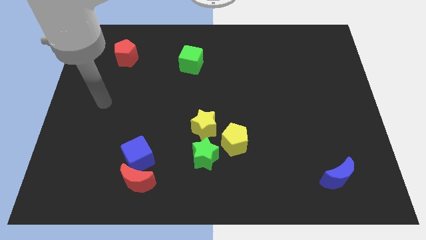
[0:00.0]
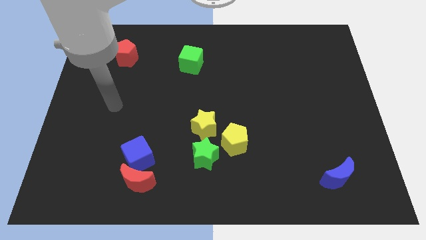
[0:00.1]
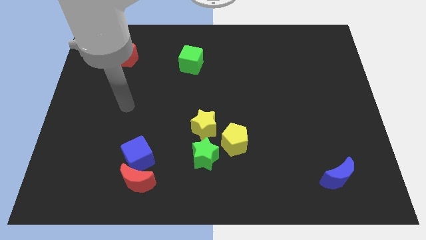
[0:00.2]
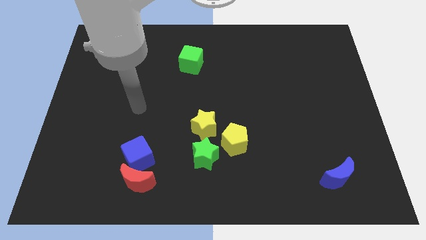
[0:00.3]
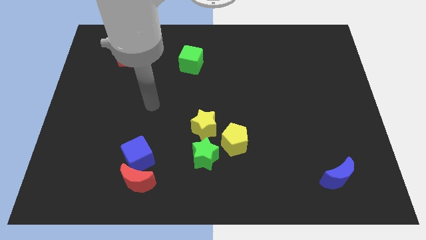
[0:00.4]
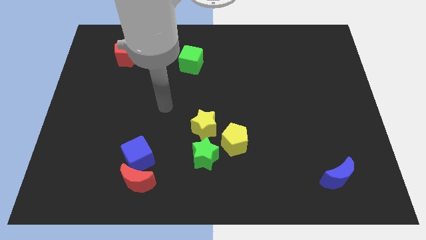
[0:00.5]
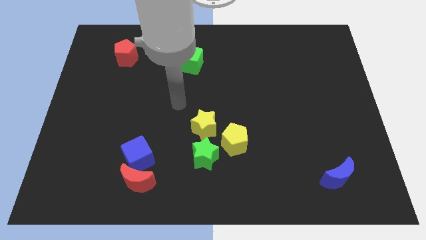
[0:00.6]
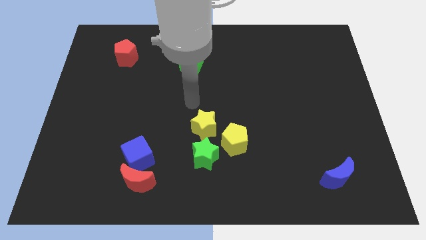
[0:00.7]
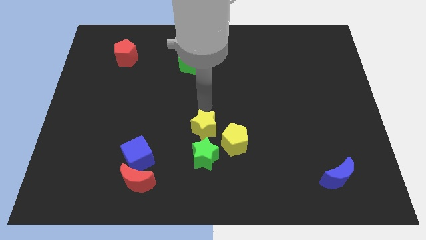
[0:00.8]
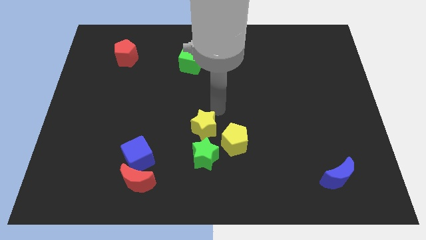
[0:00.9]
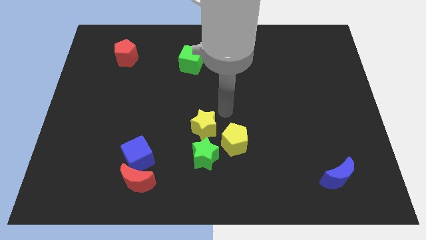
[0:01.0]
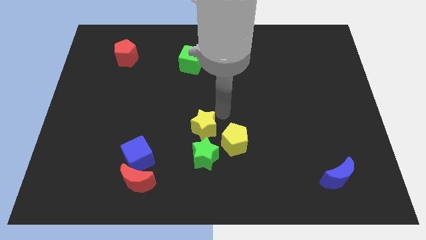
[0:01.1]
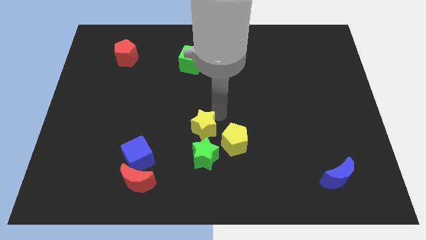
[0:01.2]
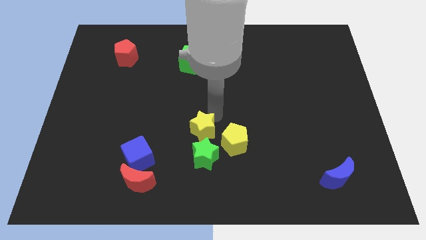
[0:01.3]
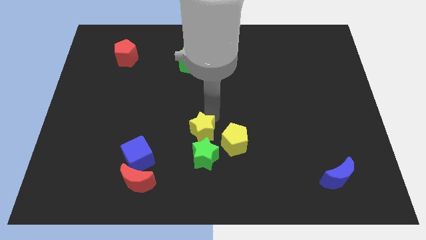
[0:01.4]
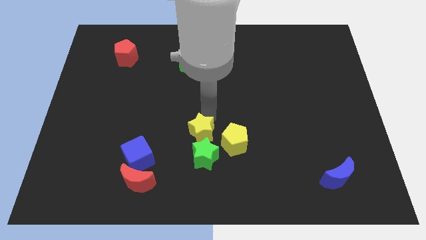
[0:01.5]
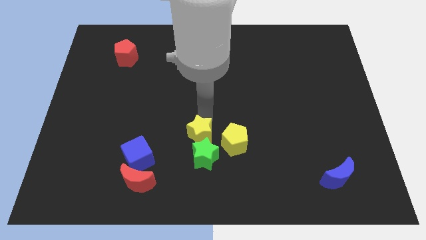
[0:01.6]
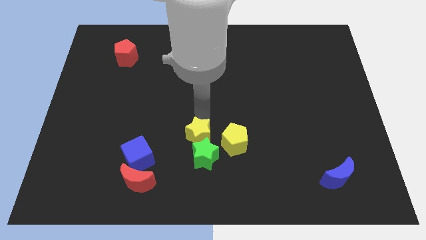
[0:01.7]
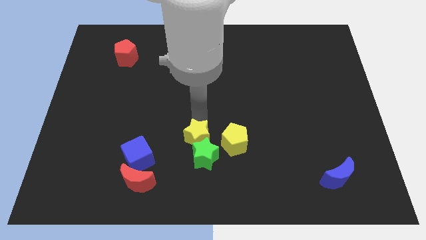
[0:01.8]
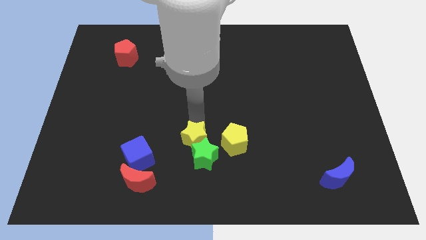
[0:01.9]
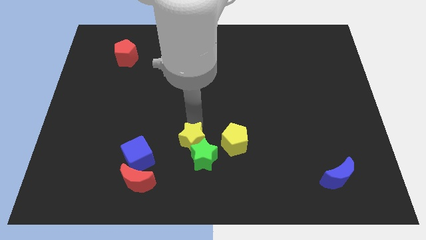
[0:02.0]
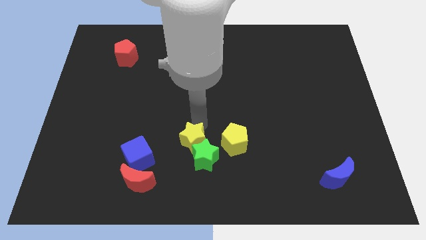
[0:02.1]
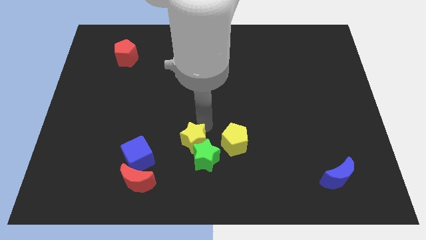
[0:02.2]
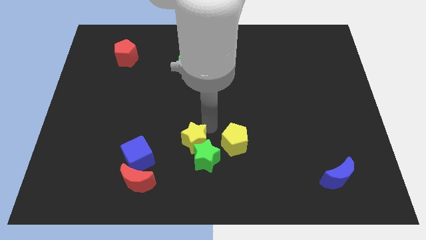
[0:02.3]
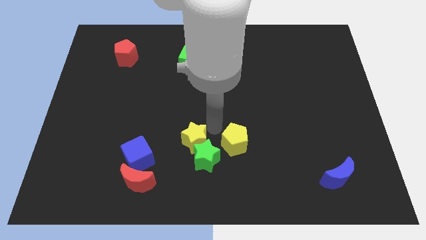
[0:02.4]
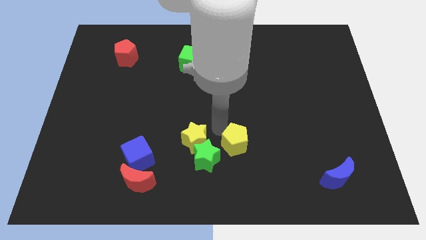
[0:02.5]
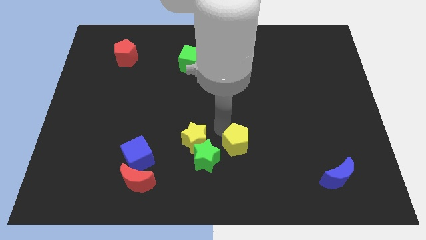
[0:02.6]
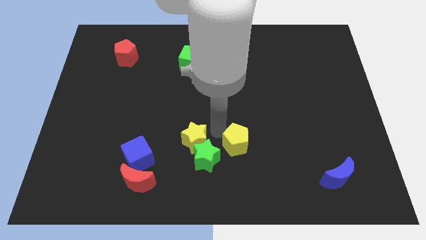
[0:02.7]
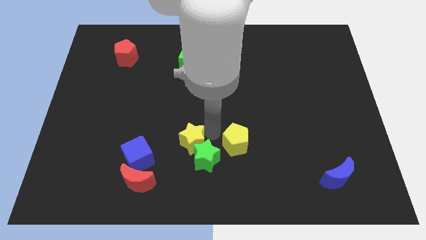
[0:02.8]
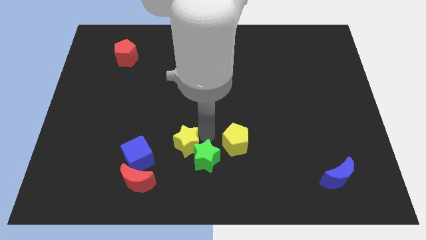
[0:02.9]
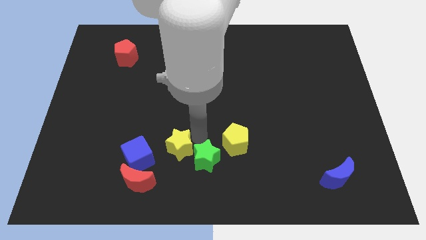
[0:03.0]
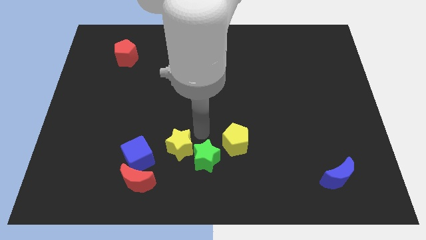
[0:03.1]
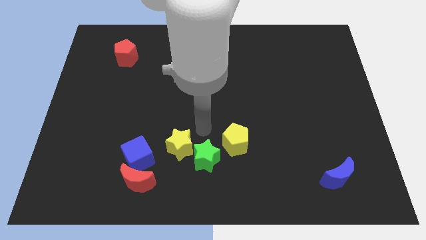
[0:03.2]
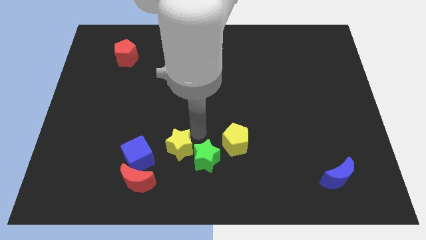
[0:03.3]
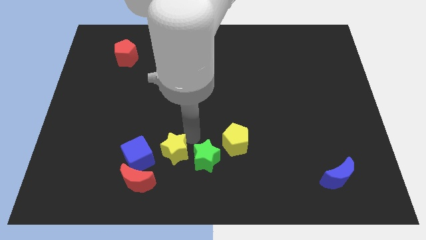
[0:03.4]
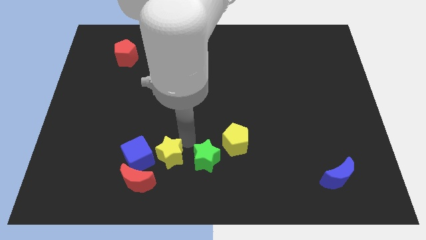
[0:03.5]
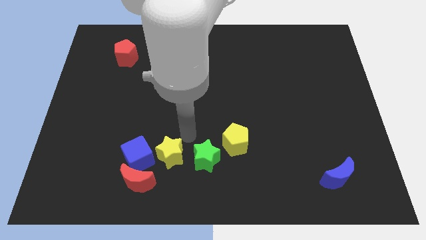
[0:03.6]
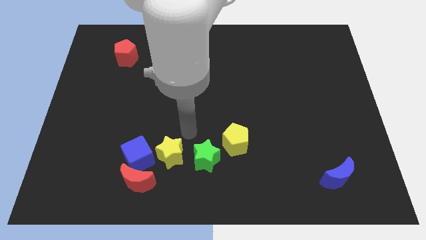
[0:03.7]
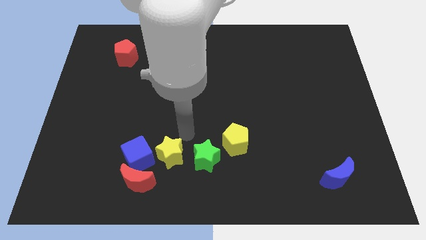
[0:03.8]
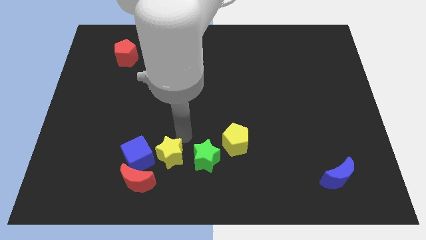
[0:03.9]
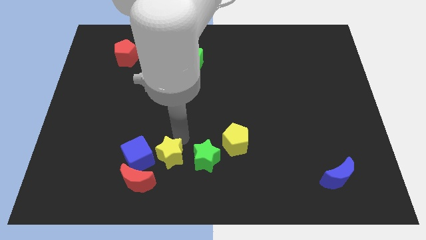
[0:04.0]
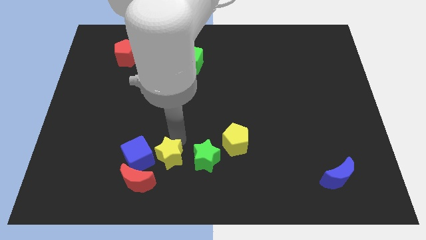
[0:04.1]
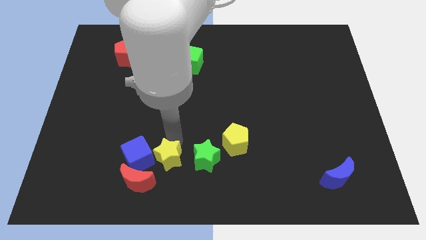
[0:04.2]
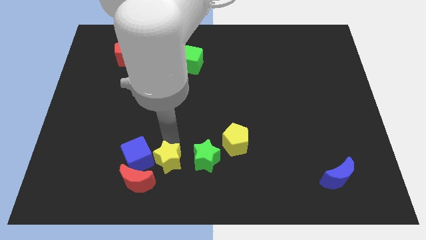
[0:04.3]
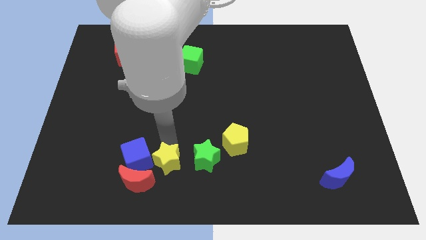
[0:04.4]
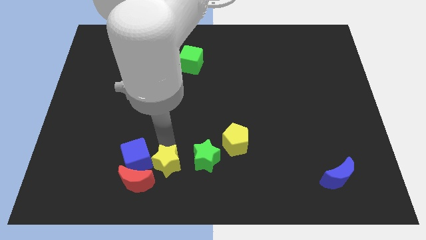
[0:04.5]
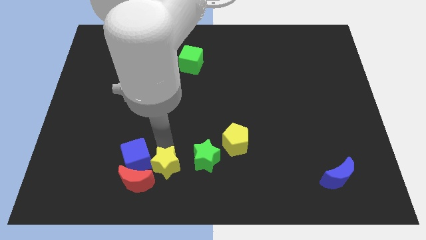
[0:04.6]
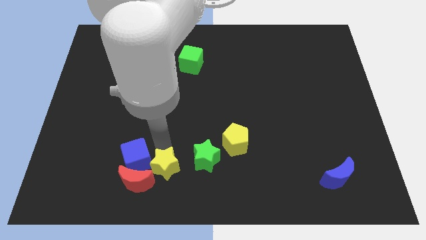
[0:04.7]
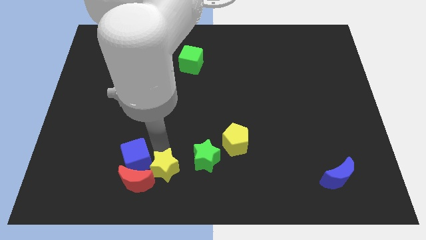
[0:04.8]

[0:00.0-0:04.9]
put the yellow star close to the red moon

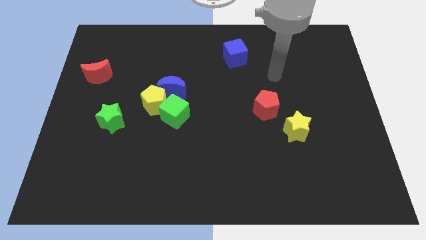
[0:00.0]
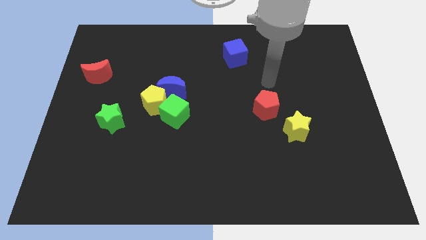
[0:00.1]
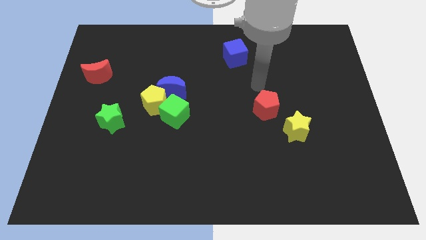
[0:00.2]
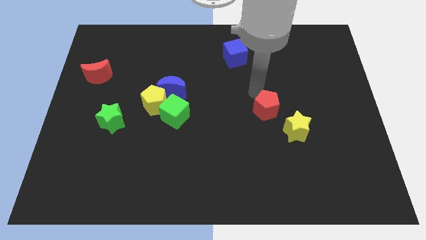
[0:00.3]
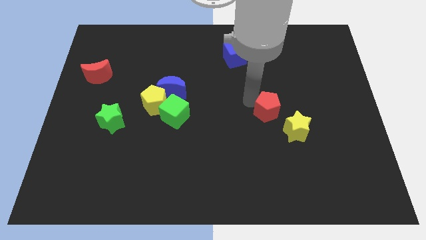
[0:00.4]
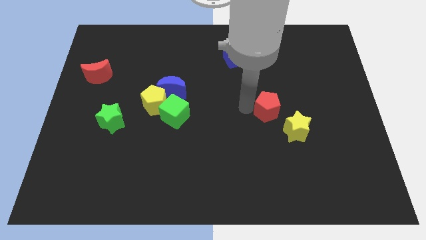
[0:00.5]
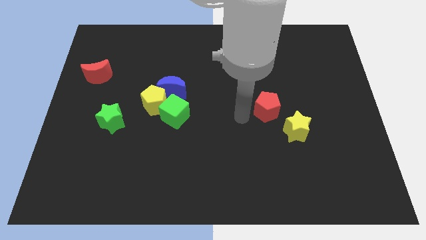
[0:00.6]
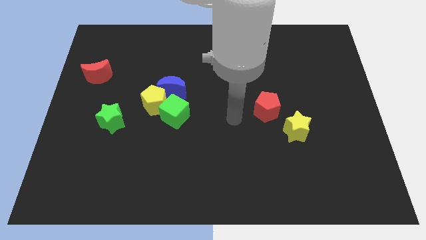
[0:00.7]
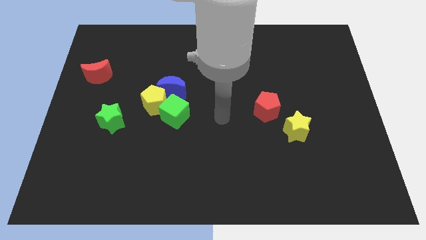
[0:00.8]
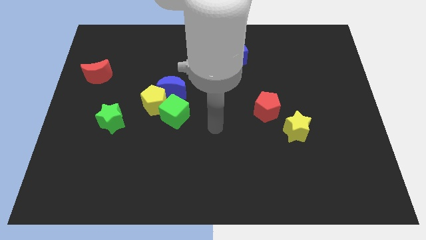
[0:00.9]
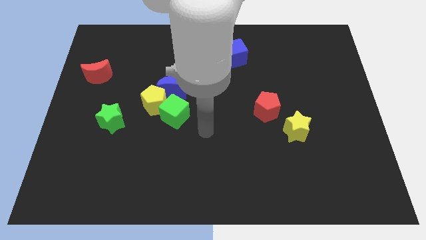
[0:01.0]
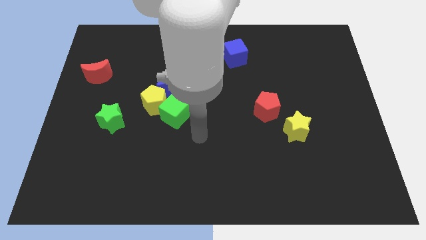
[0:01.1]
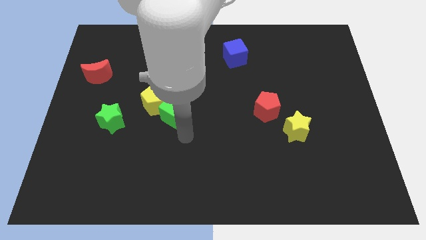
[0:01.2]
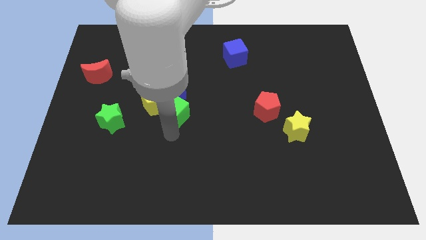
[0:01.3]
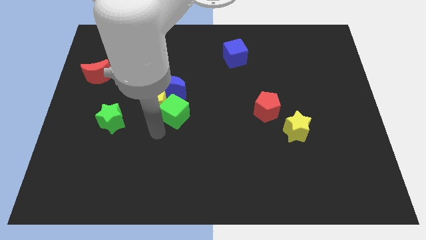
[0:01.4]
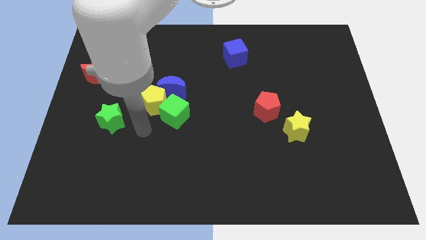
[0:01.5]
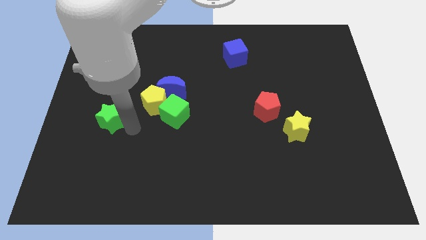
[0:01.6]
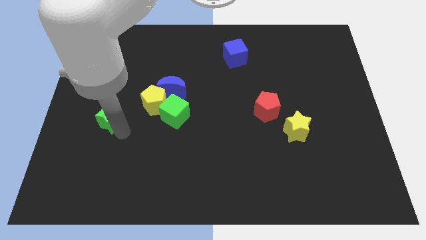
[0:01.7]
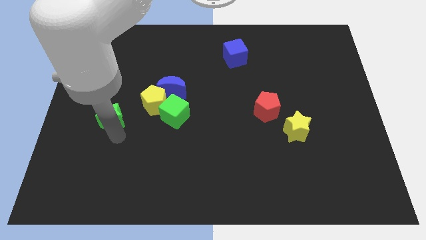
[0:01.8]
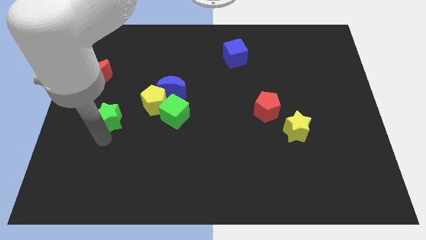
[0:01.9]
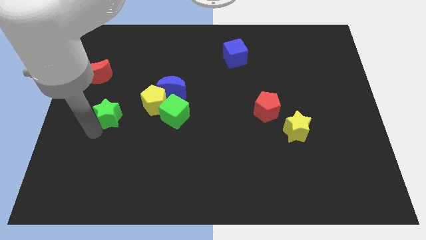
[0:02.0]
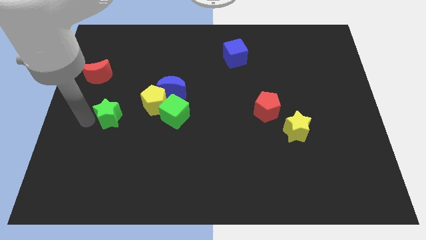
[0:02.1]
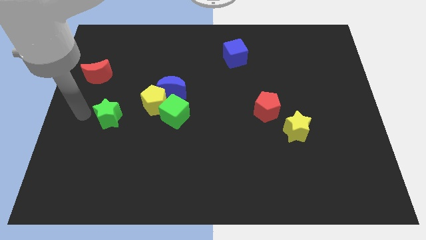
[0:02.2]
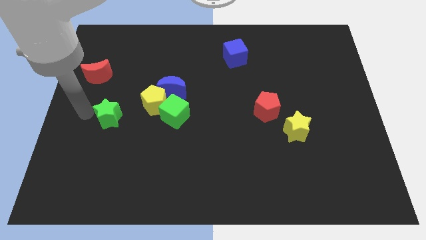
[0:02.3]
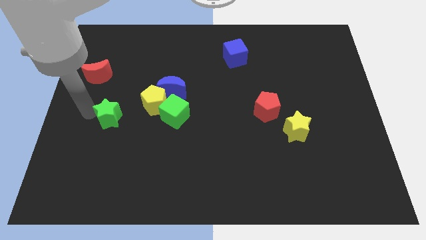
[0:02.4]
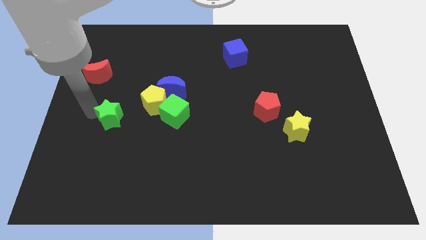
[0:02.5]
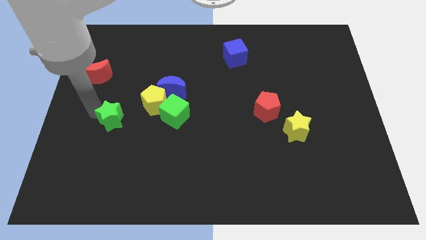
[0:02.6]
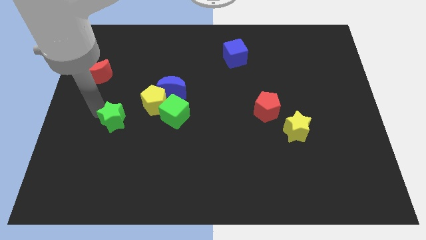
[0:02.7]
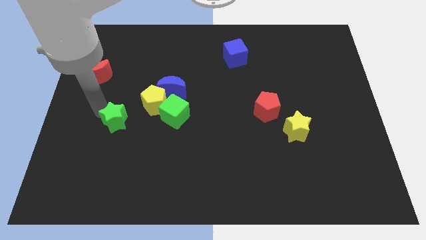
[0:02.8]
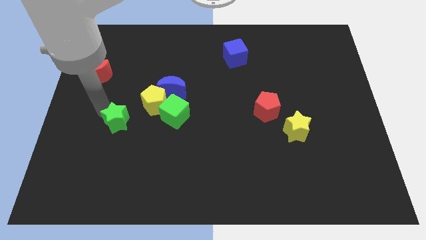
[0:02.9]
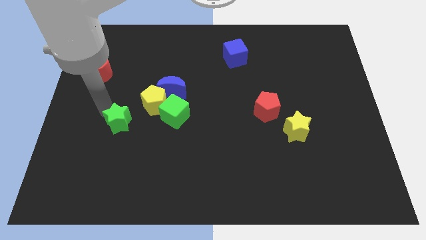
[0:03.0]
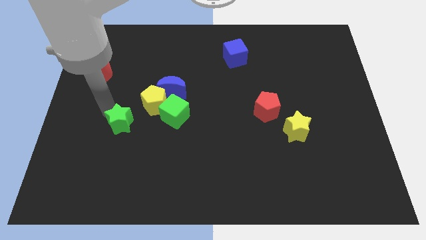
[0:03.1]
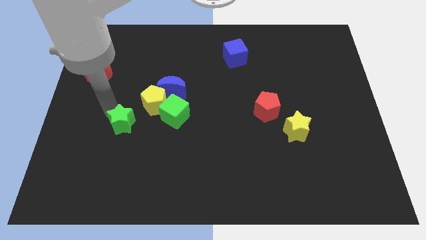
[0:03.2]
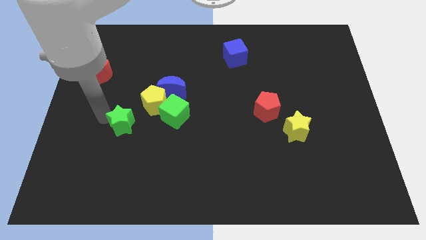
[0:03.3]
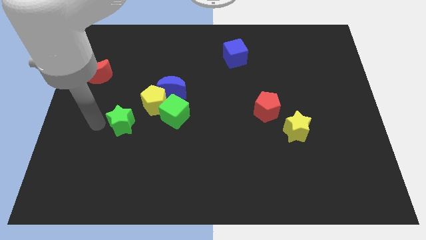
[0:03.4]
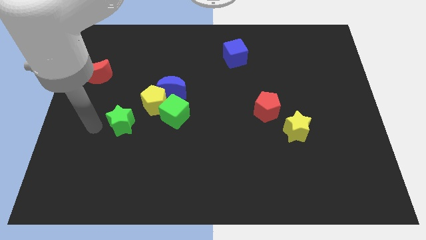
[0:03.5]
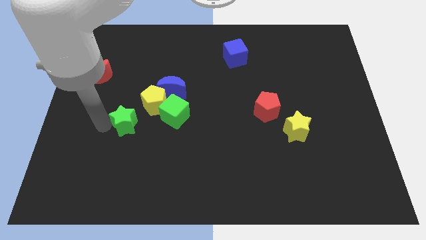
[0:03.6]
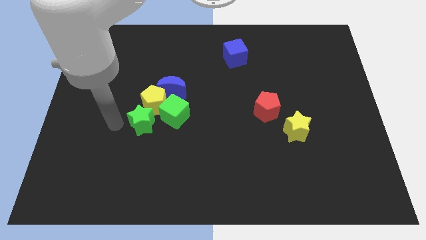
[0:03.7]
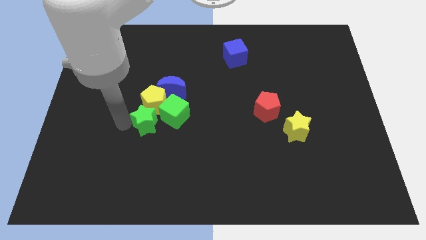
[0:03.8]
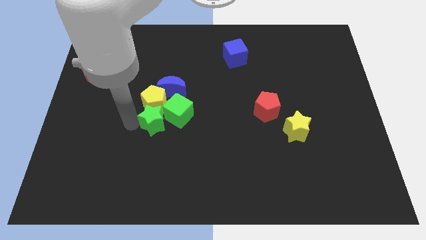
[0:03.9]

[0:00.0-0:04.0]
move the green star next to the green cube
